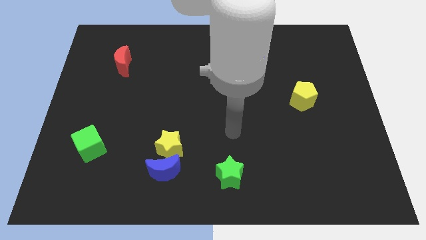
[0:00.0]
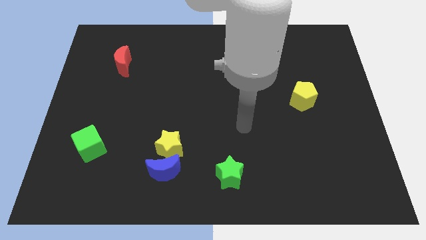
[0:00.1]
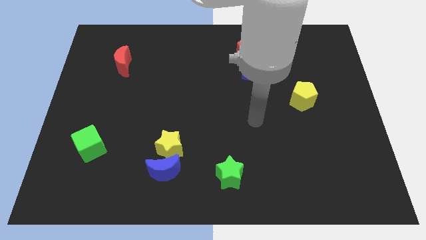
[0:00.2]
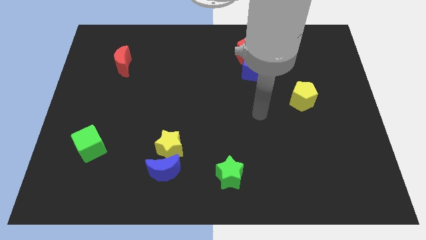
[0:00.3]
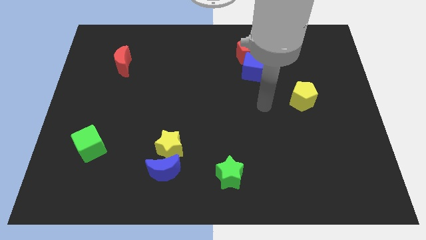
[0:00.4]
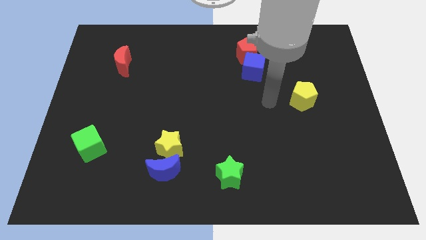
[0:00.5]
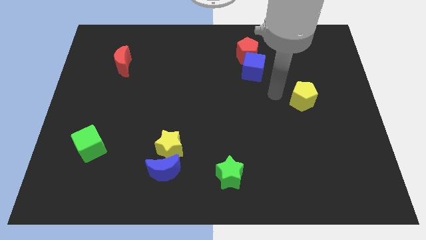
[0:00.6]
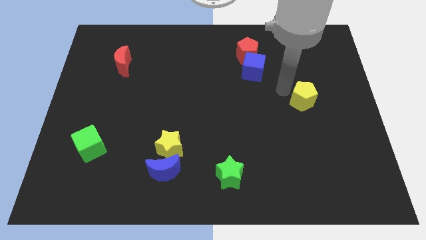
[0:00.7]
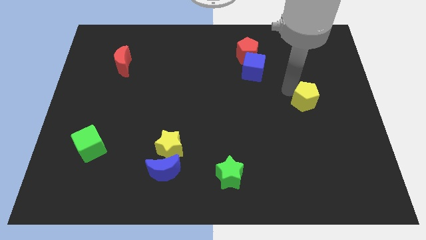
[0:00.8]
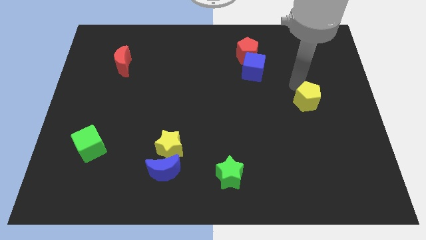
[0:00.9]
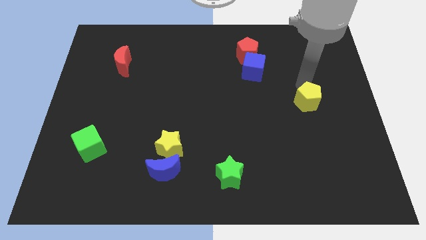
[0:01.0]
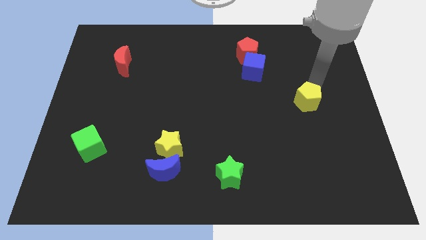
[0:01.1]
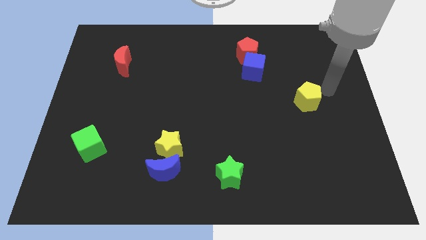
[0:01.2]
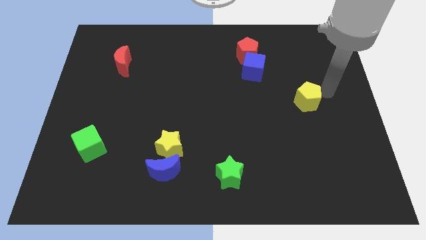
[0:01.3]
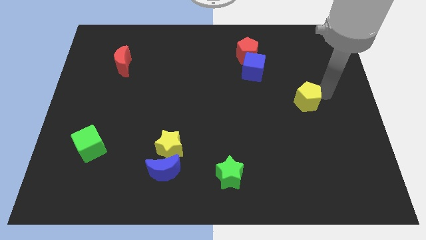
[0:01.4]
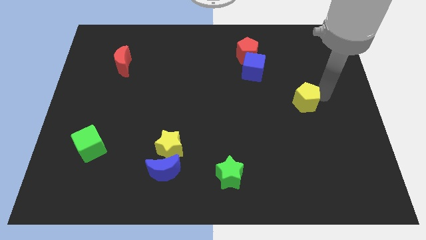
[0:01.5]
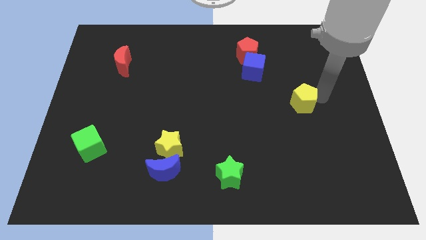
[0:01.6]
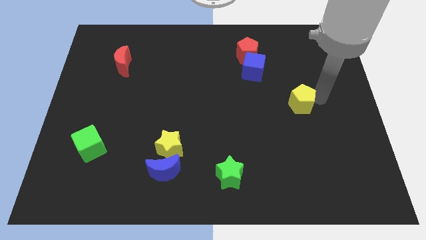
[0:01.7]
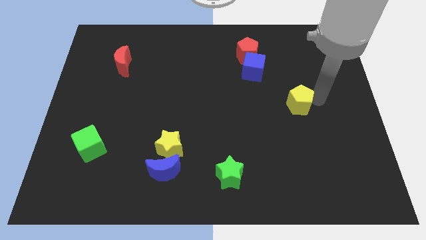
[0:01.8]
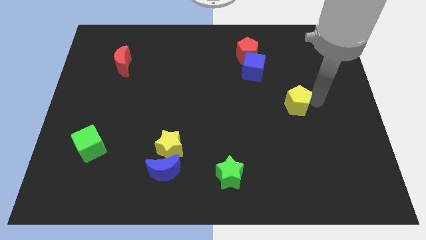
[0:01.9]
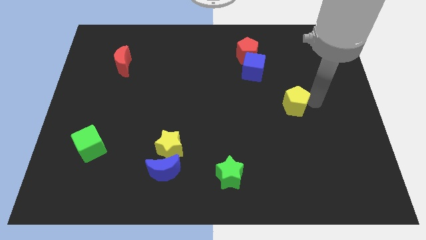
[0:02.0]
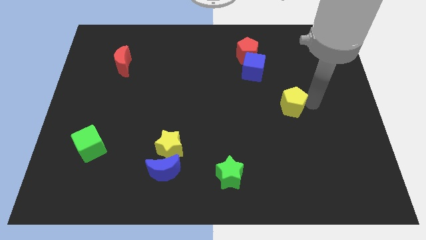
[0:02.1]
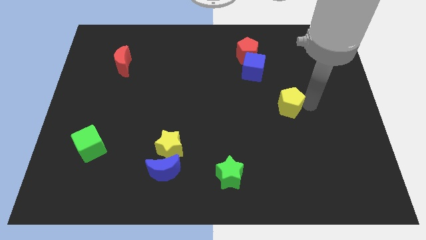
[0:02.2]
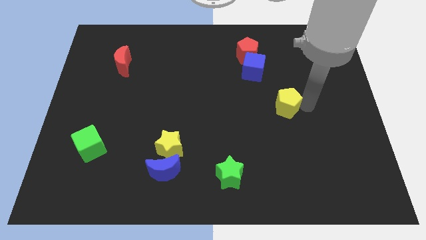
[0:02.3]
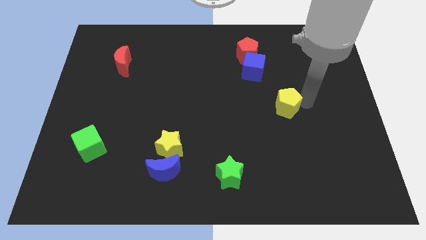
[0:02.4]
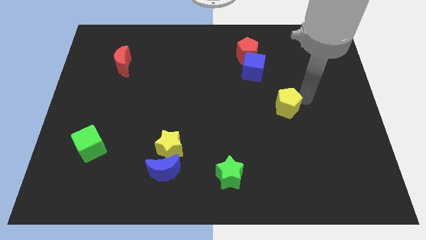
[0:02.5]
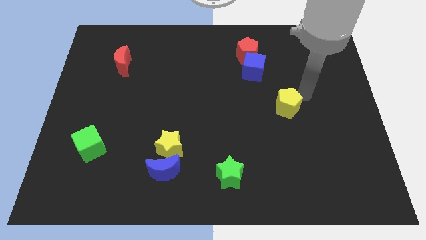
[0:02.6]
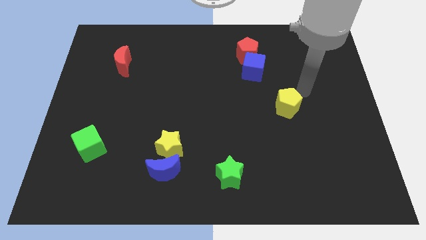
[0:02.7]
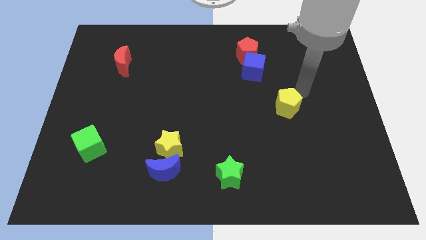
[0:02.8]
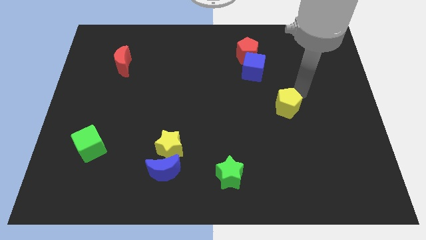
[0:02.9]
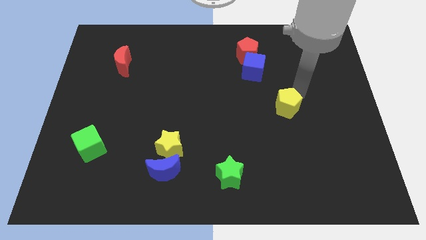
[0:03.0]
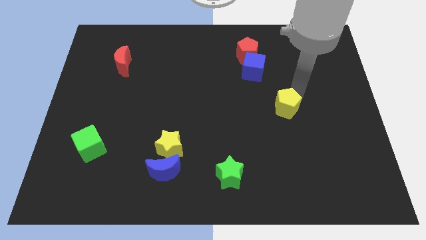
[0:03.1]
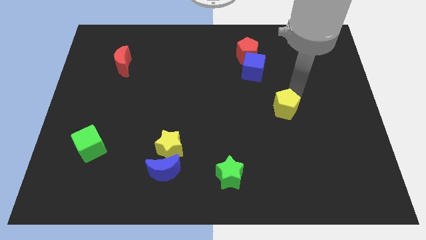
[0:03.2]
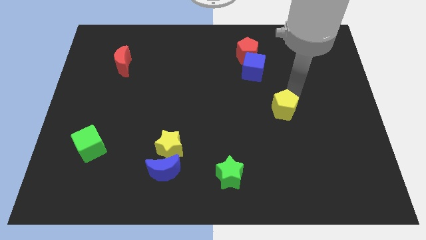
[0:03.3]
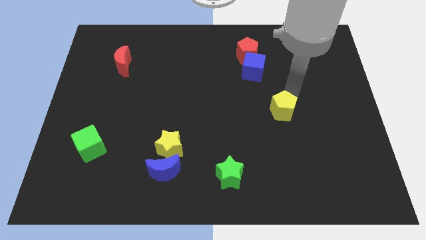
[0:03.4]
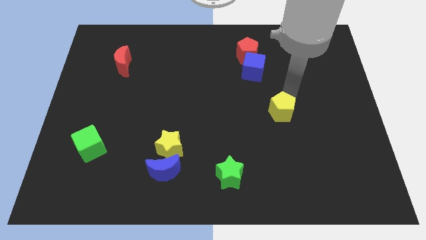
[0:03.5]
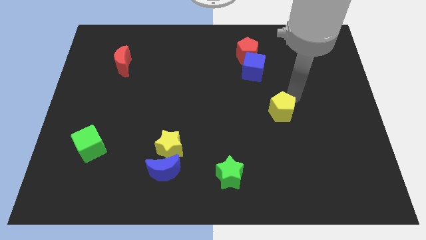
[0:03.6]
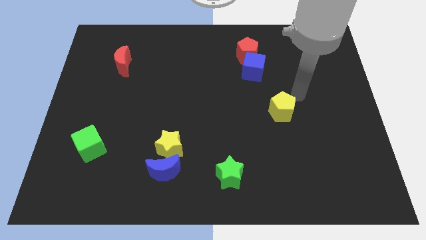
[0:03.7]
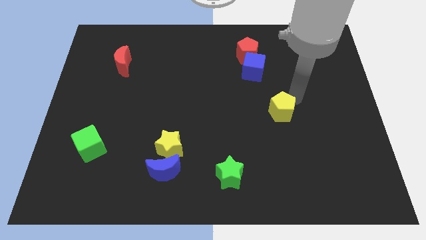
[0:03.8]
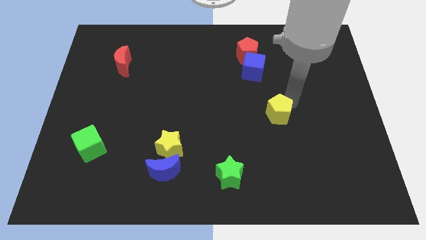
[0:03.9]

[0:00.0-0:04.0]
push the yellow pentagon down and left a bit

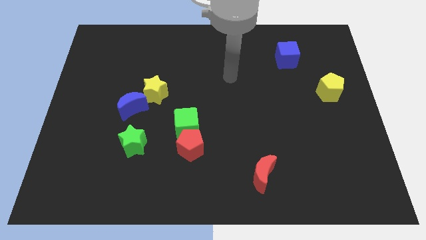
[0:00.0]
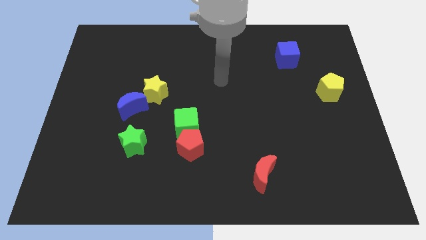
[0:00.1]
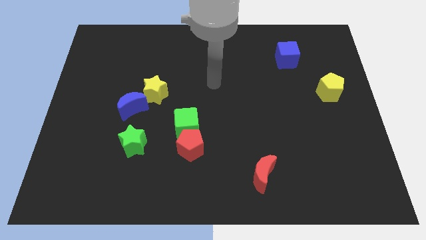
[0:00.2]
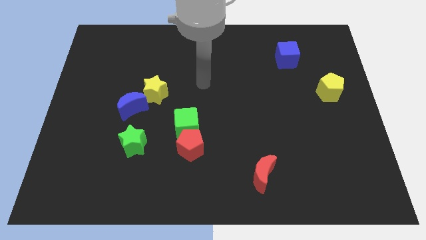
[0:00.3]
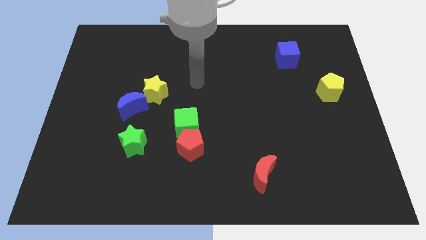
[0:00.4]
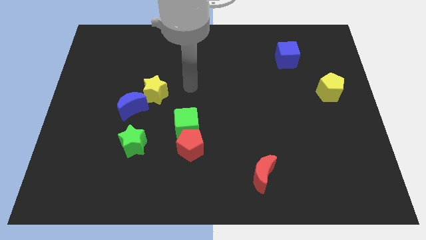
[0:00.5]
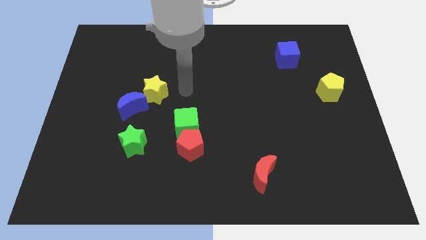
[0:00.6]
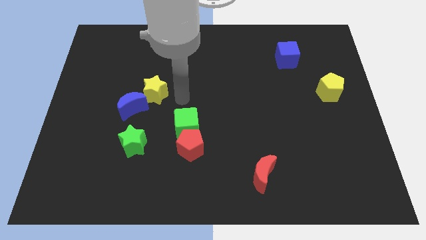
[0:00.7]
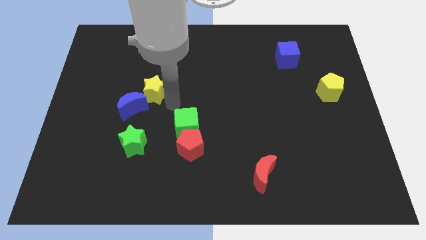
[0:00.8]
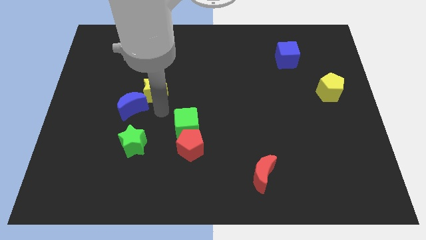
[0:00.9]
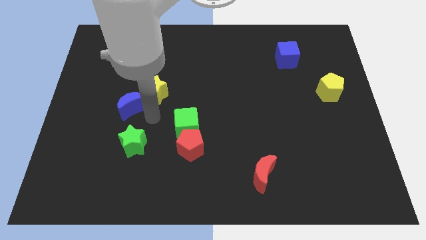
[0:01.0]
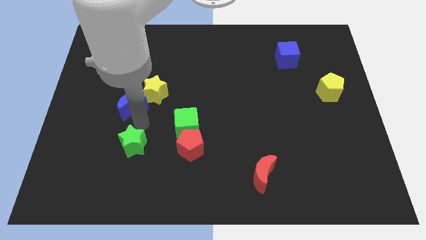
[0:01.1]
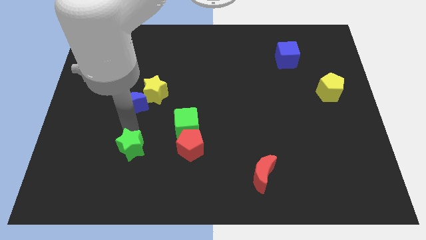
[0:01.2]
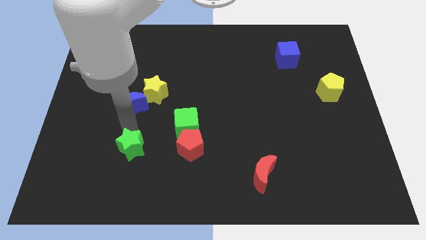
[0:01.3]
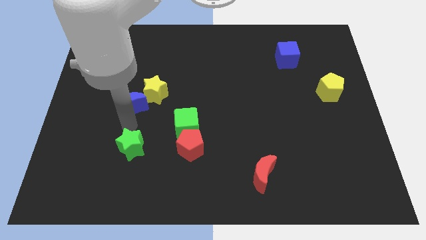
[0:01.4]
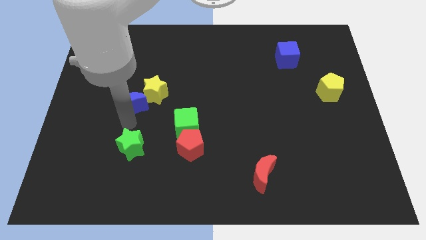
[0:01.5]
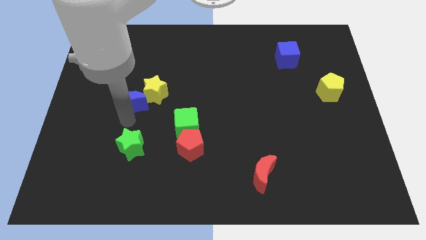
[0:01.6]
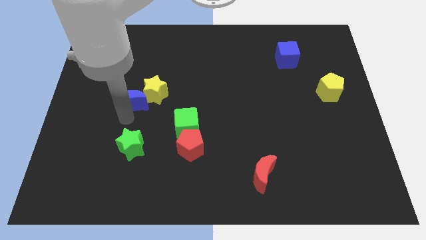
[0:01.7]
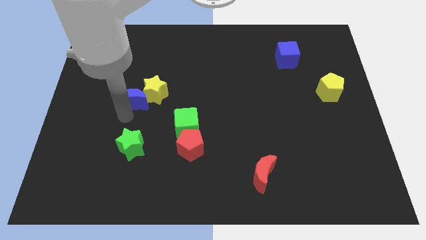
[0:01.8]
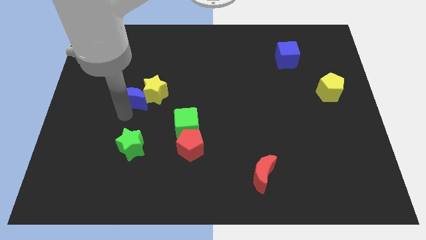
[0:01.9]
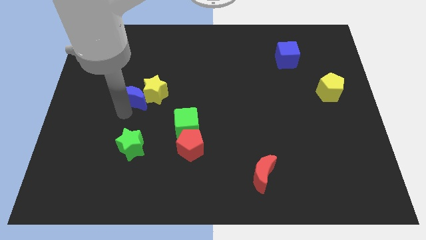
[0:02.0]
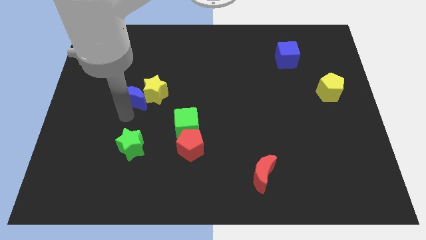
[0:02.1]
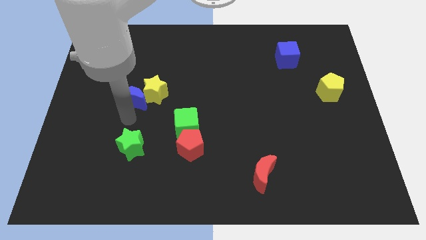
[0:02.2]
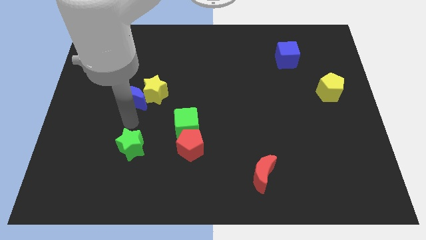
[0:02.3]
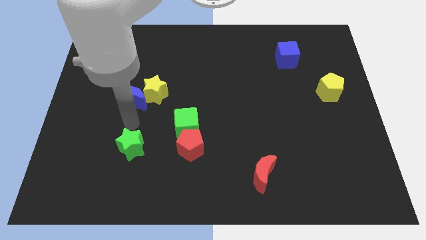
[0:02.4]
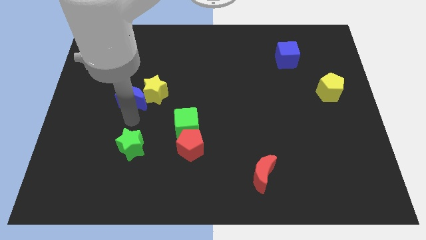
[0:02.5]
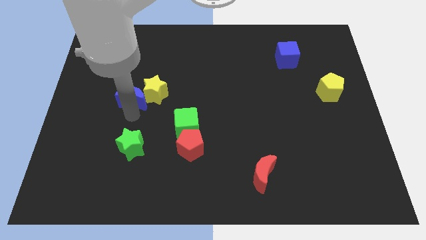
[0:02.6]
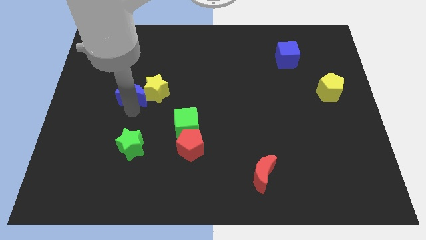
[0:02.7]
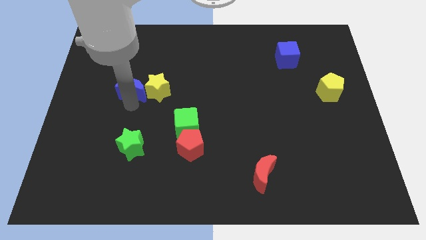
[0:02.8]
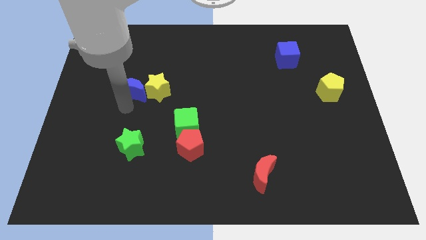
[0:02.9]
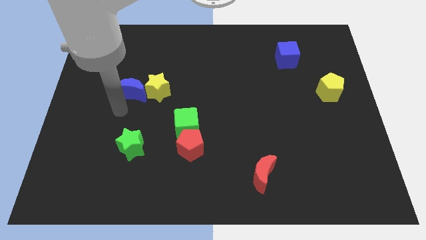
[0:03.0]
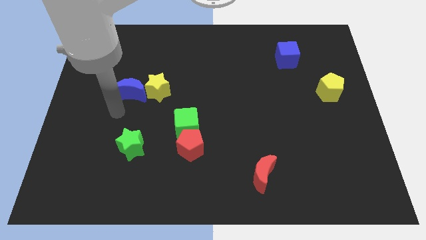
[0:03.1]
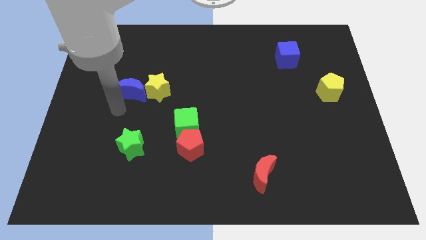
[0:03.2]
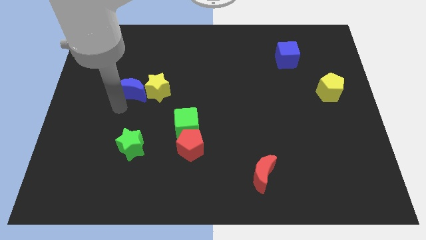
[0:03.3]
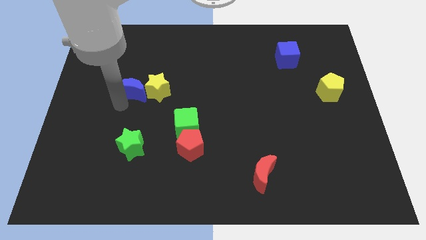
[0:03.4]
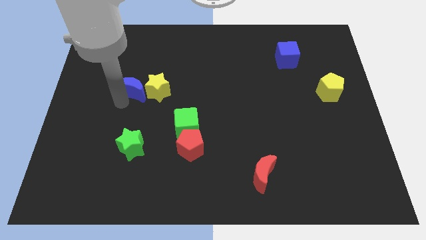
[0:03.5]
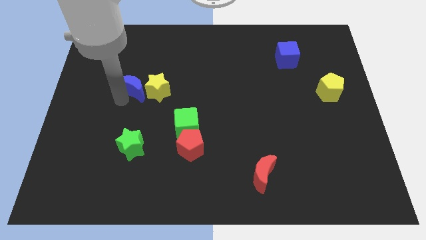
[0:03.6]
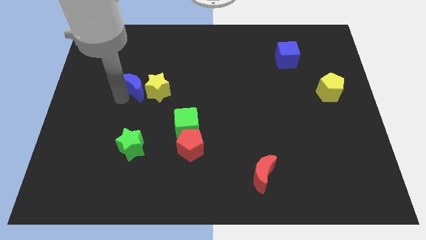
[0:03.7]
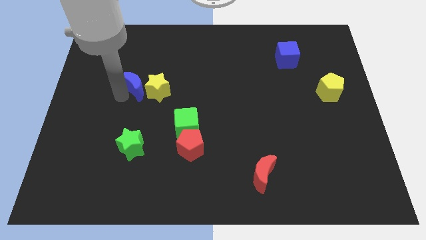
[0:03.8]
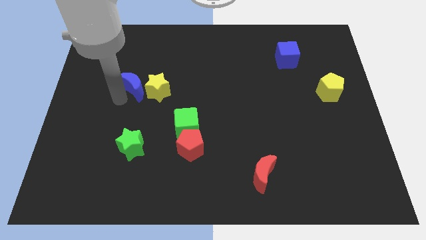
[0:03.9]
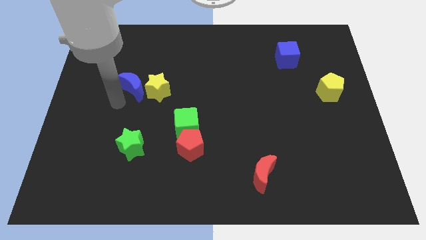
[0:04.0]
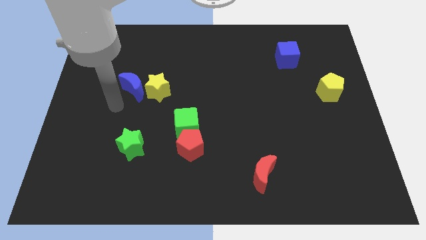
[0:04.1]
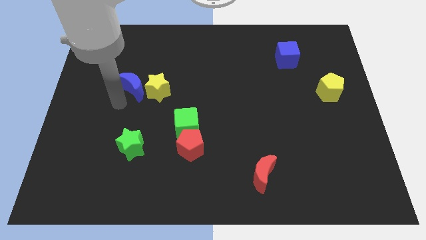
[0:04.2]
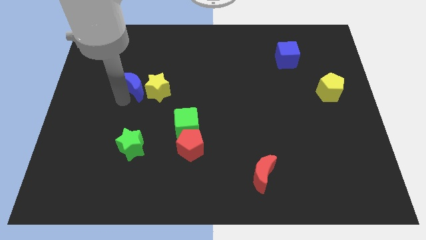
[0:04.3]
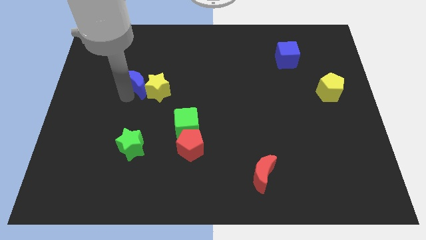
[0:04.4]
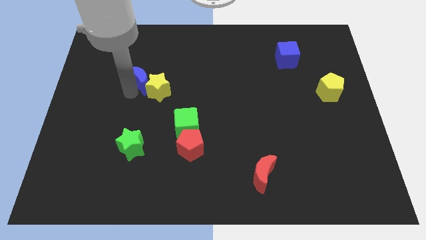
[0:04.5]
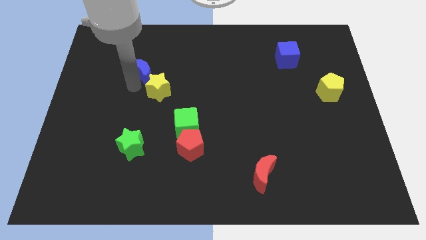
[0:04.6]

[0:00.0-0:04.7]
push the blue moon a little diagonally up and to the right
